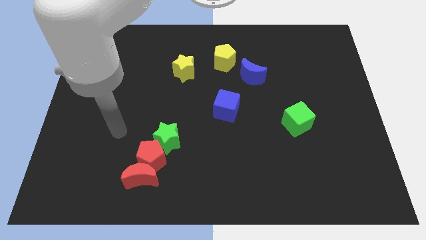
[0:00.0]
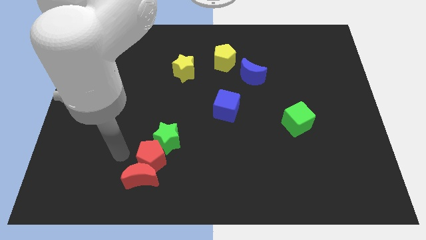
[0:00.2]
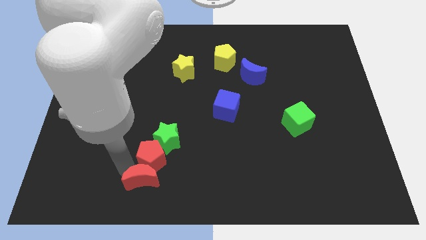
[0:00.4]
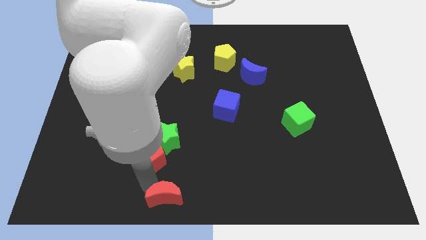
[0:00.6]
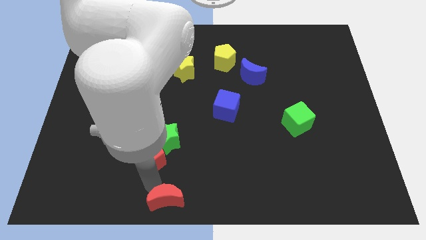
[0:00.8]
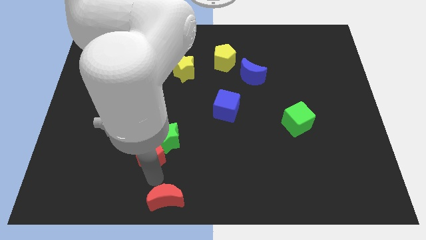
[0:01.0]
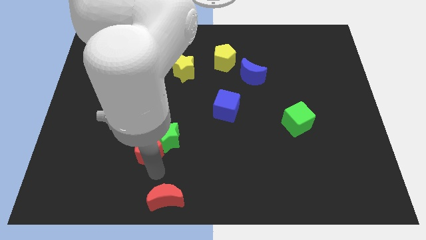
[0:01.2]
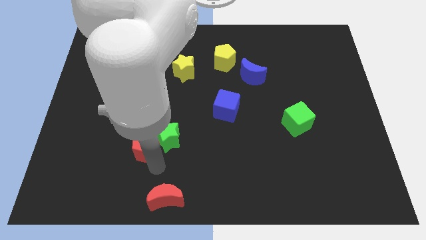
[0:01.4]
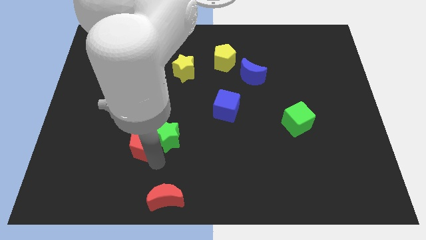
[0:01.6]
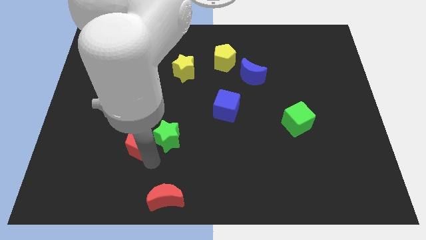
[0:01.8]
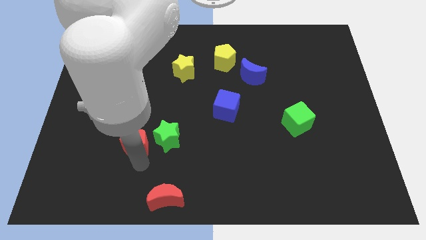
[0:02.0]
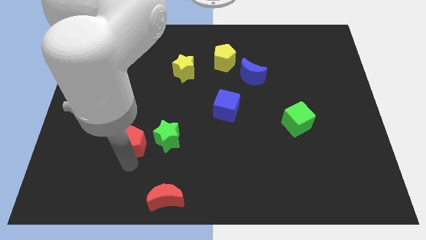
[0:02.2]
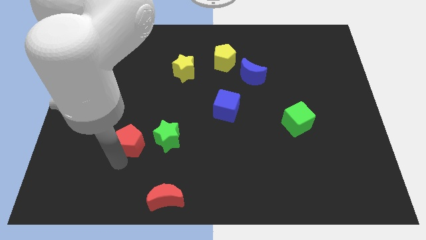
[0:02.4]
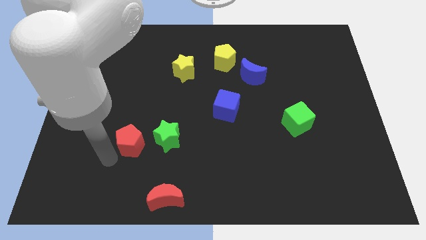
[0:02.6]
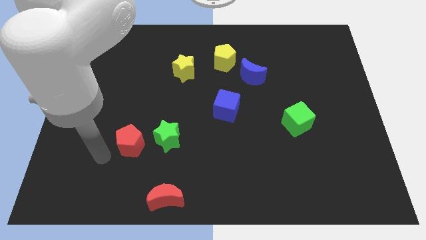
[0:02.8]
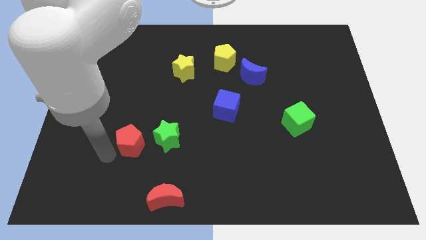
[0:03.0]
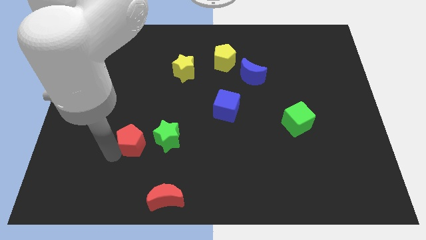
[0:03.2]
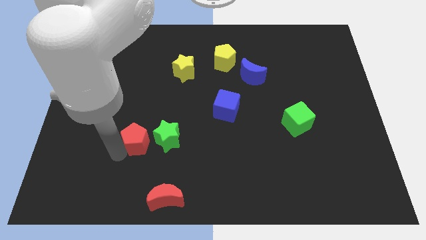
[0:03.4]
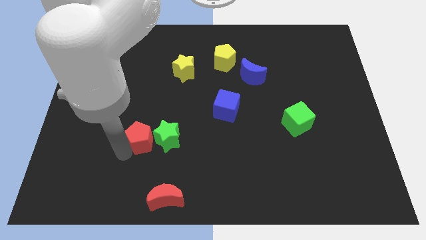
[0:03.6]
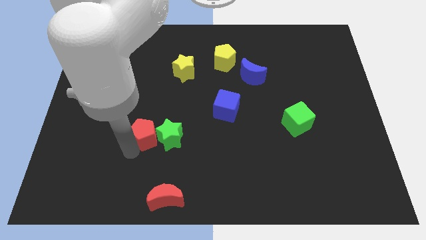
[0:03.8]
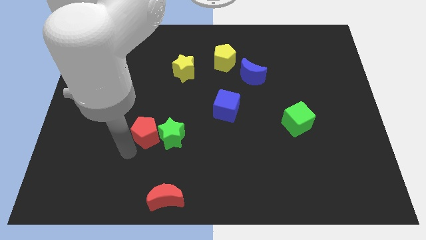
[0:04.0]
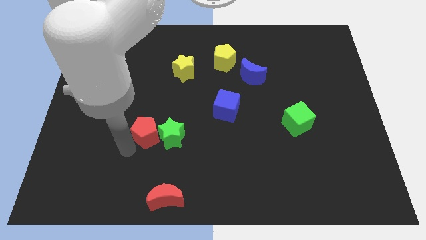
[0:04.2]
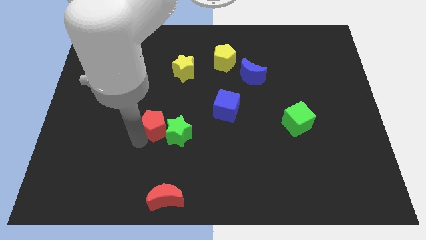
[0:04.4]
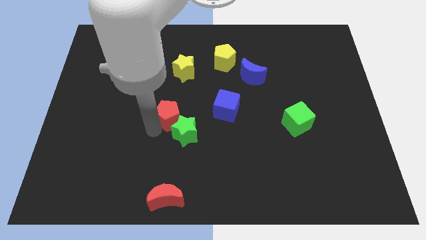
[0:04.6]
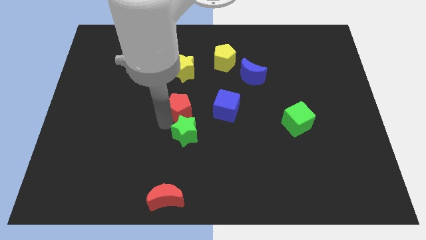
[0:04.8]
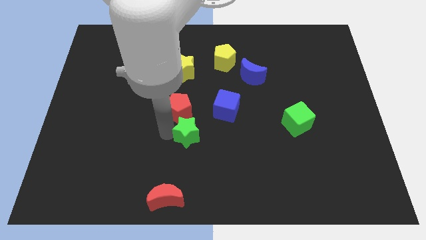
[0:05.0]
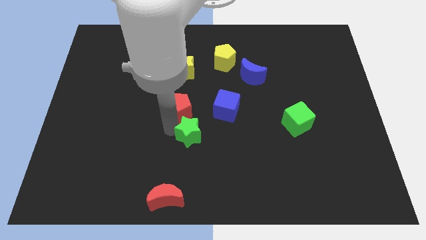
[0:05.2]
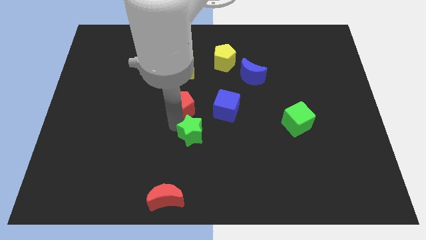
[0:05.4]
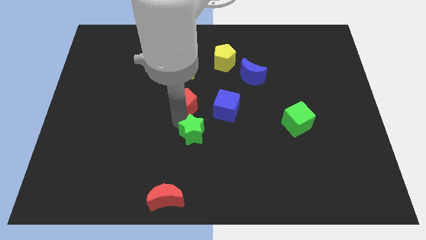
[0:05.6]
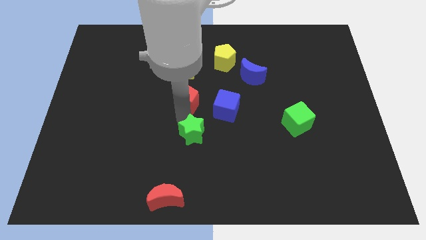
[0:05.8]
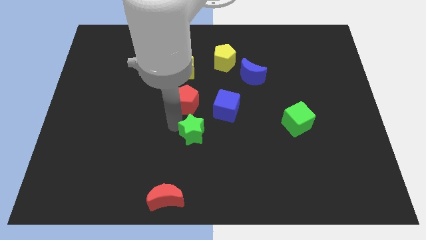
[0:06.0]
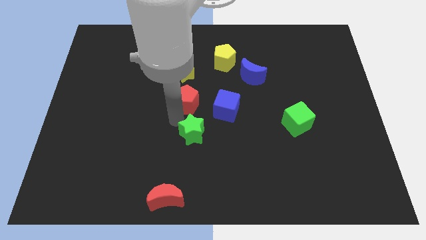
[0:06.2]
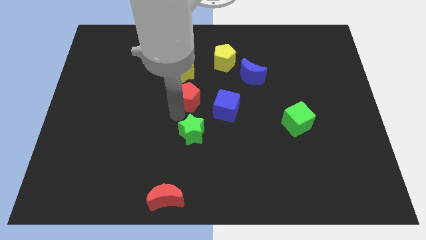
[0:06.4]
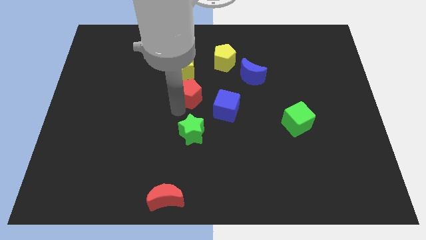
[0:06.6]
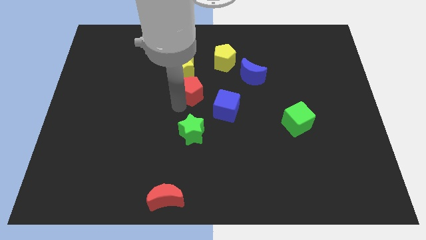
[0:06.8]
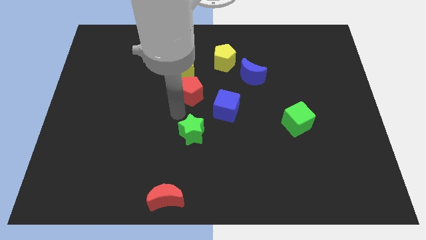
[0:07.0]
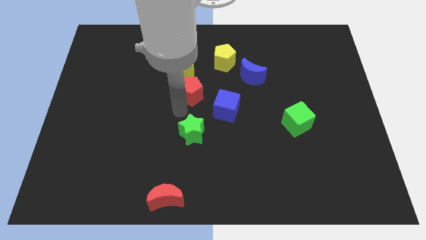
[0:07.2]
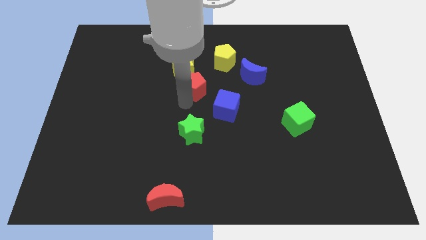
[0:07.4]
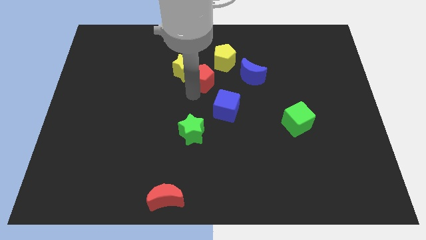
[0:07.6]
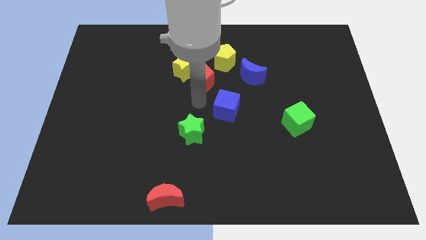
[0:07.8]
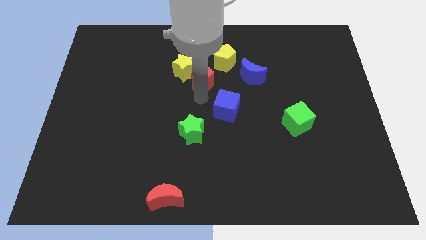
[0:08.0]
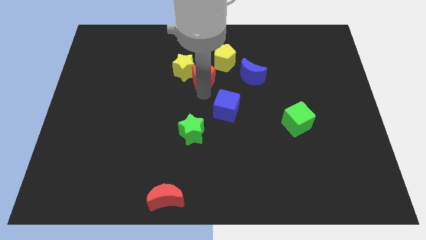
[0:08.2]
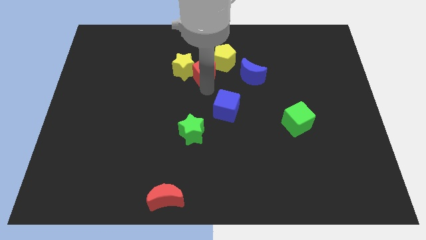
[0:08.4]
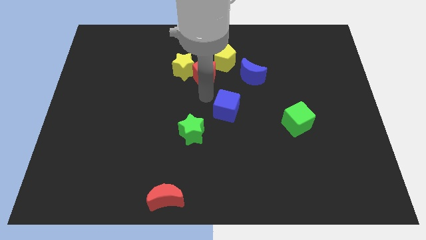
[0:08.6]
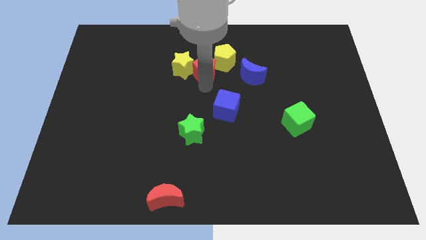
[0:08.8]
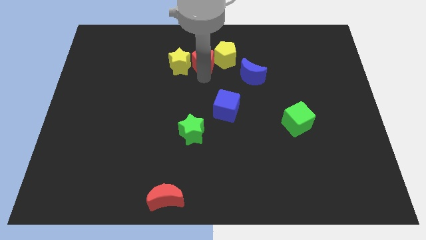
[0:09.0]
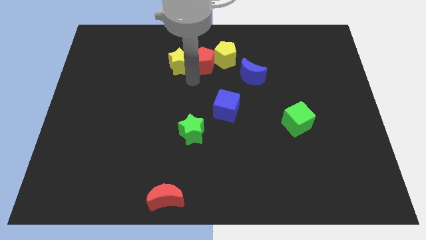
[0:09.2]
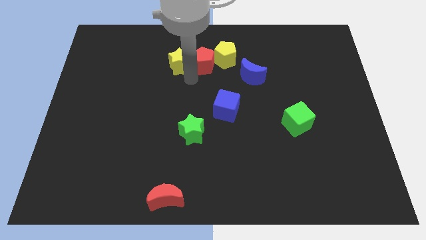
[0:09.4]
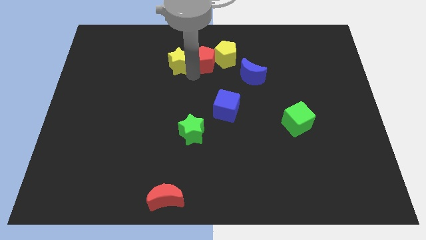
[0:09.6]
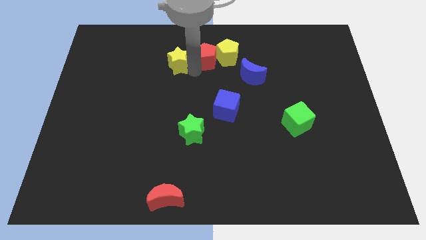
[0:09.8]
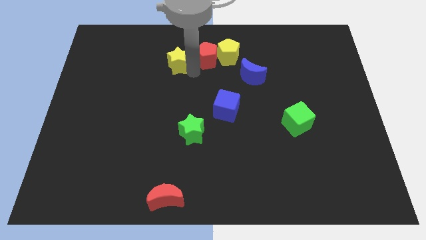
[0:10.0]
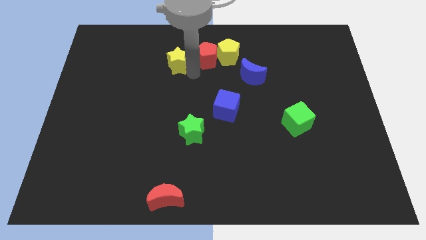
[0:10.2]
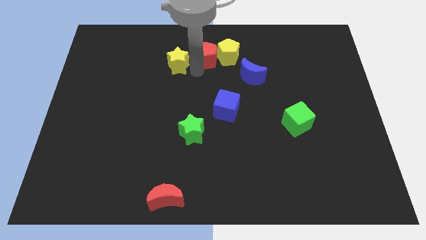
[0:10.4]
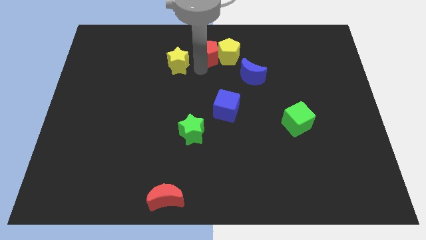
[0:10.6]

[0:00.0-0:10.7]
slide the red pentagon to the top

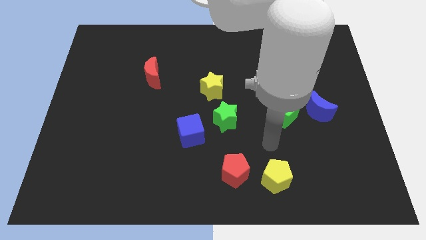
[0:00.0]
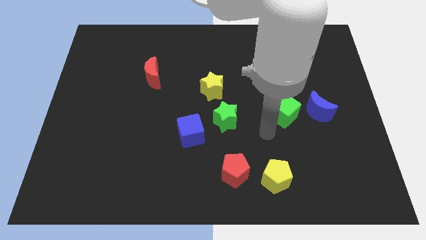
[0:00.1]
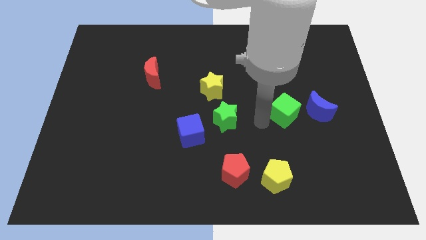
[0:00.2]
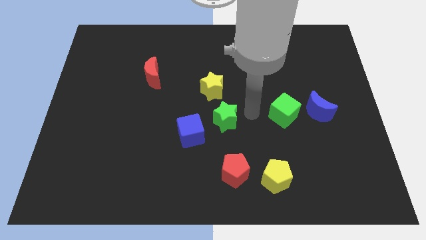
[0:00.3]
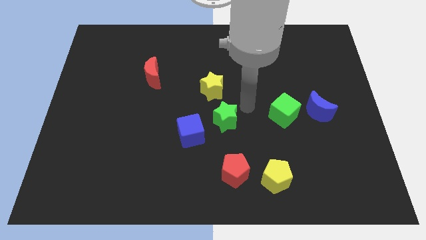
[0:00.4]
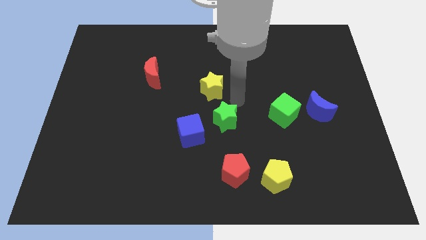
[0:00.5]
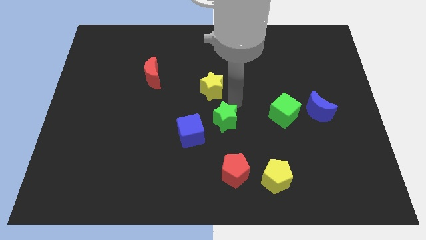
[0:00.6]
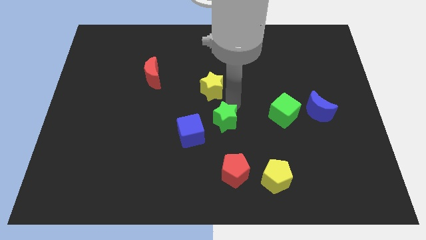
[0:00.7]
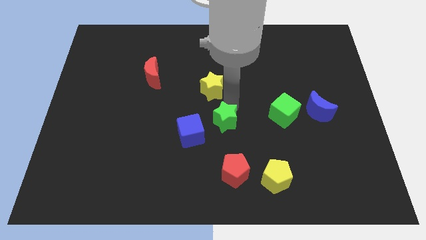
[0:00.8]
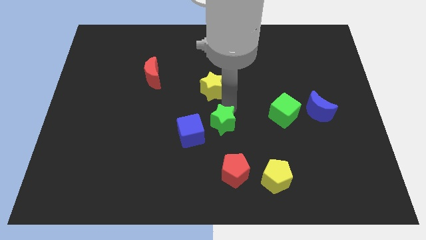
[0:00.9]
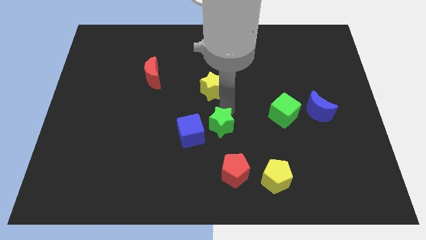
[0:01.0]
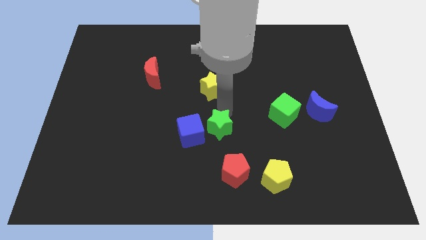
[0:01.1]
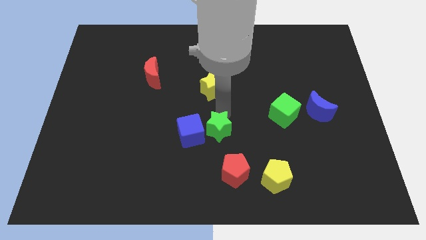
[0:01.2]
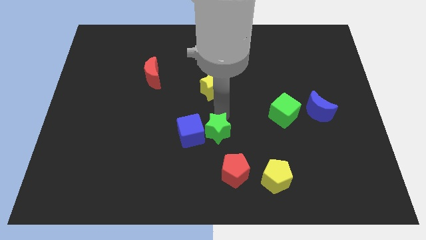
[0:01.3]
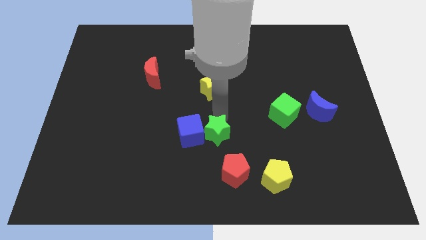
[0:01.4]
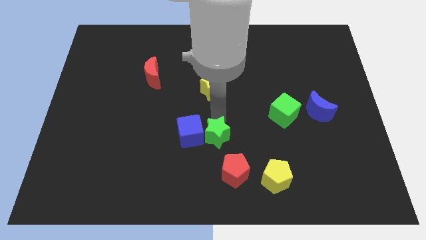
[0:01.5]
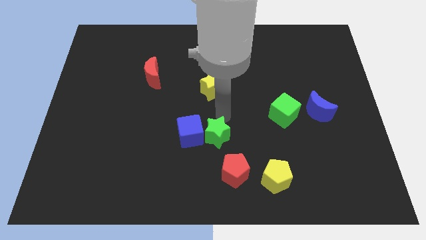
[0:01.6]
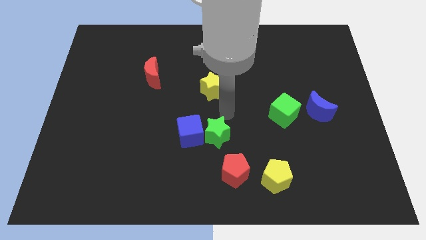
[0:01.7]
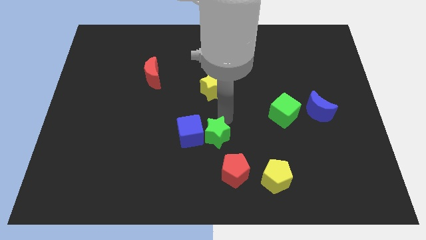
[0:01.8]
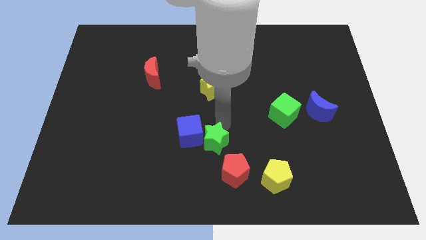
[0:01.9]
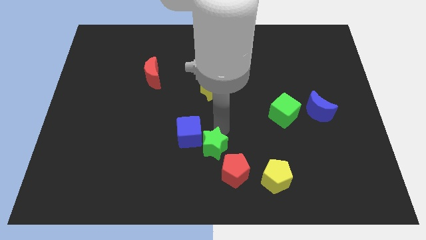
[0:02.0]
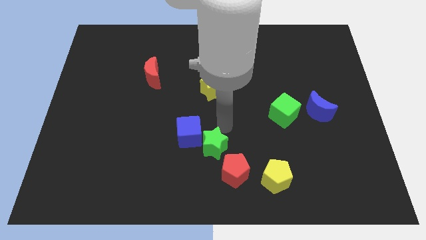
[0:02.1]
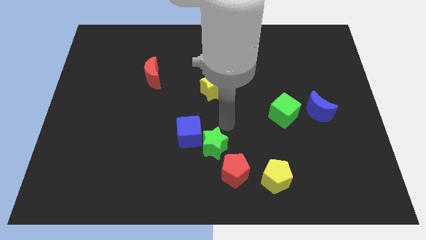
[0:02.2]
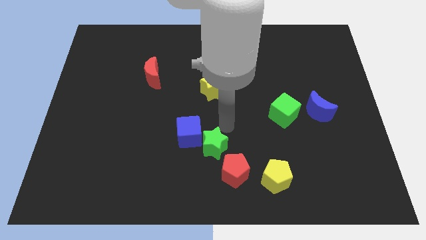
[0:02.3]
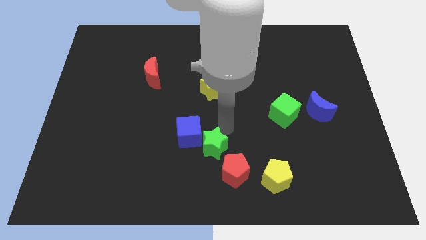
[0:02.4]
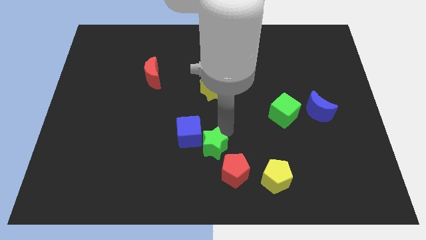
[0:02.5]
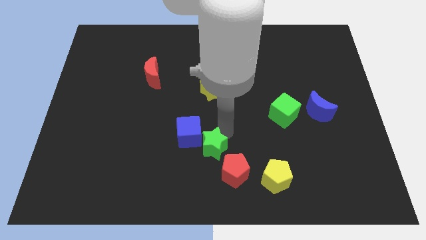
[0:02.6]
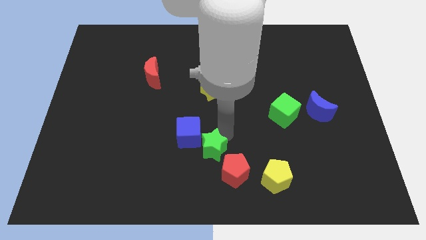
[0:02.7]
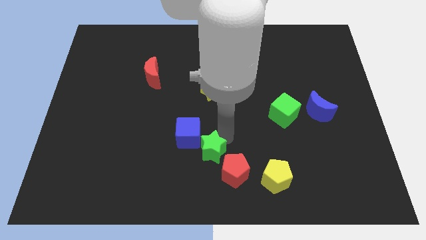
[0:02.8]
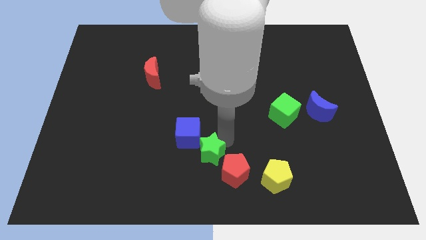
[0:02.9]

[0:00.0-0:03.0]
push the green star to the bottom
